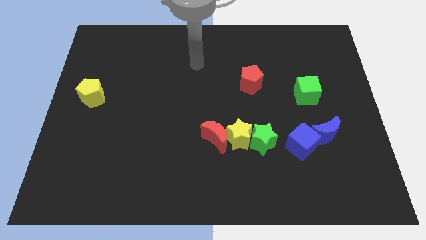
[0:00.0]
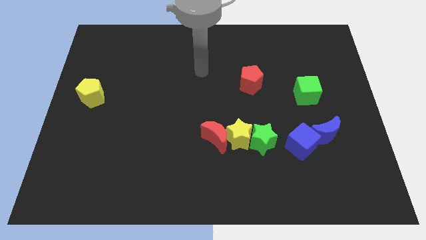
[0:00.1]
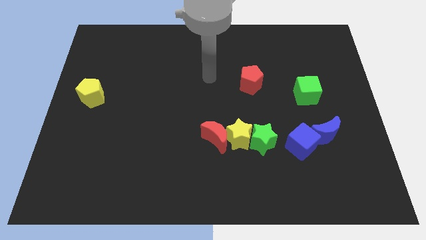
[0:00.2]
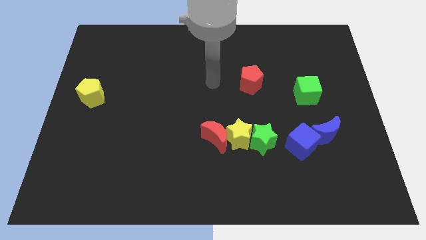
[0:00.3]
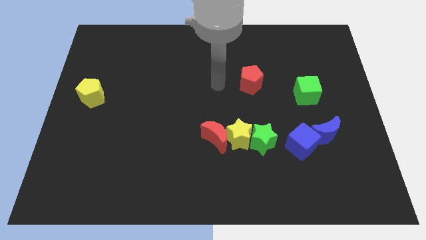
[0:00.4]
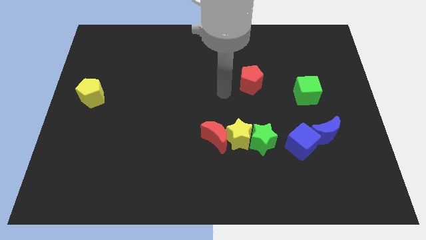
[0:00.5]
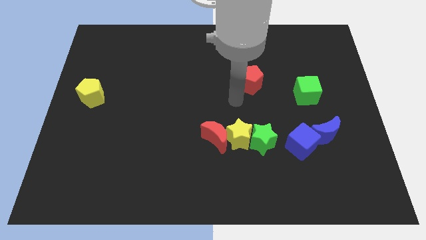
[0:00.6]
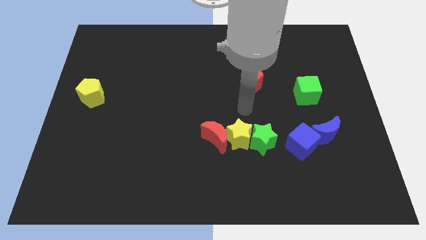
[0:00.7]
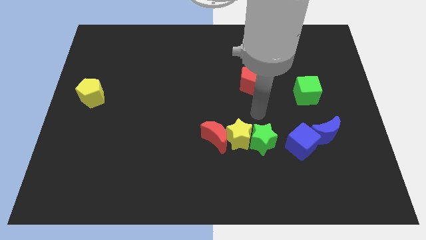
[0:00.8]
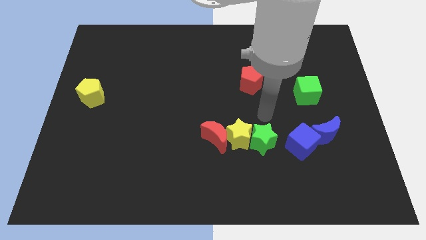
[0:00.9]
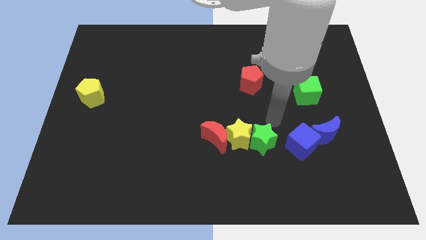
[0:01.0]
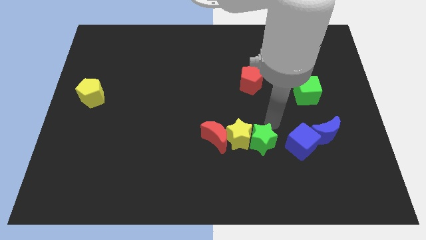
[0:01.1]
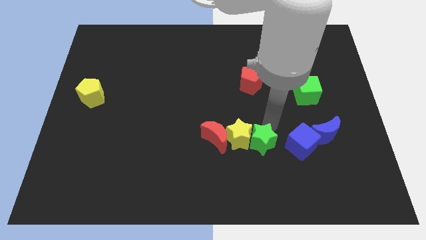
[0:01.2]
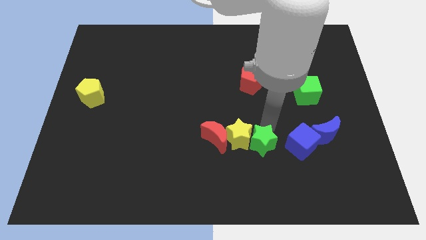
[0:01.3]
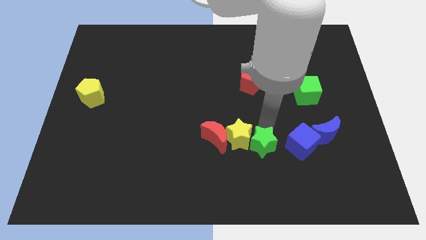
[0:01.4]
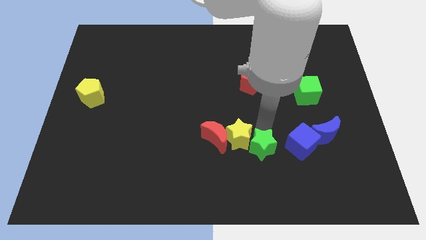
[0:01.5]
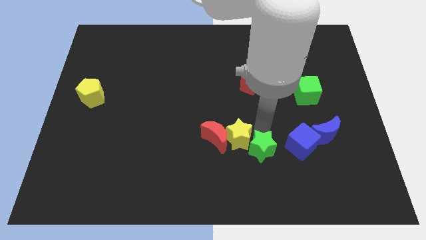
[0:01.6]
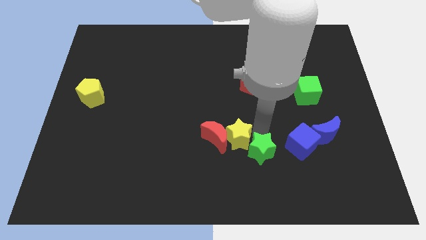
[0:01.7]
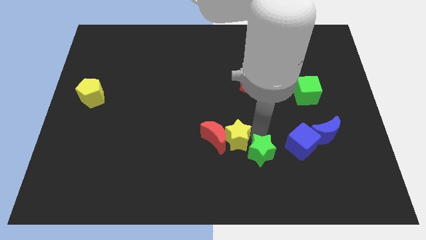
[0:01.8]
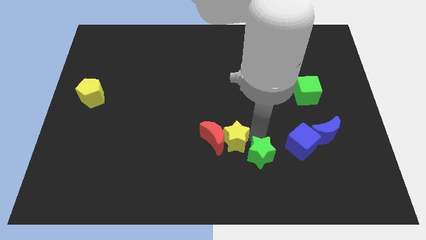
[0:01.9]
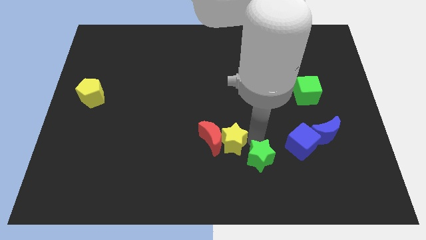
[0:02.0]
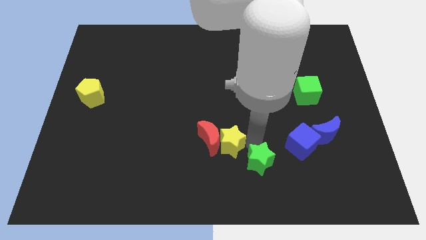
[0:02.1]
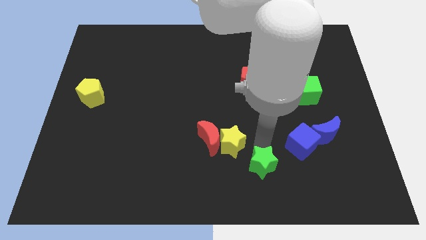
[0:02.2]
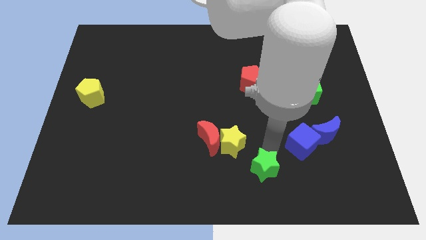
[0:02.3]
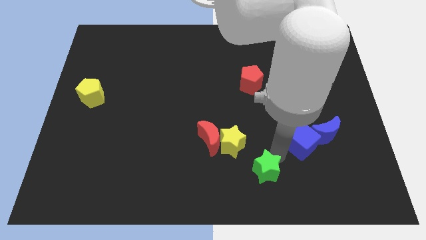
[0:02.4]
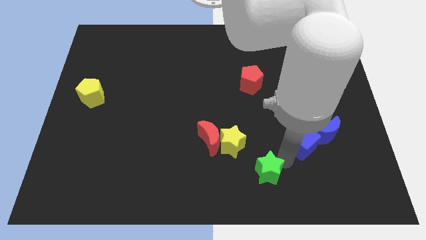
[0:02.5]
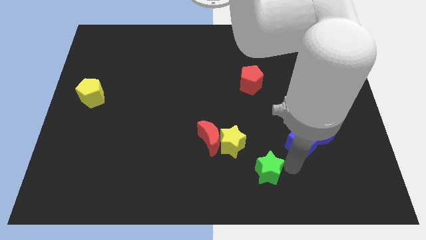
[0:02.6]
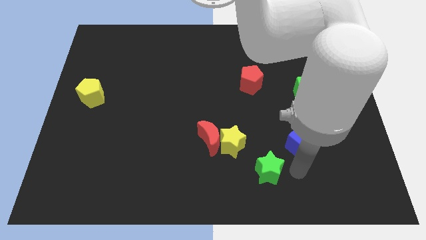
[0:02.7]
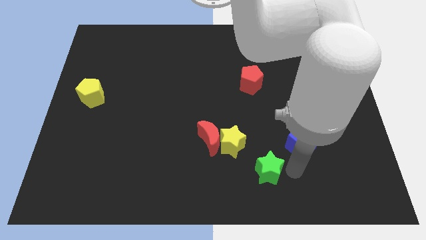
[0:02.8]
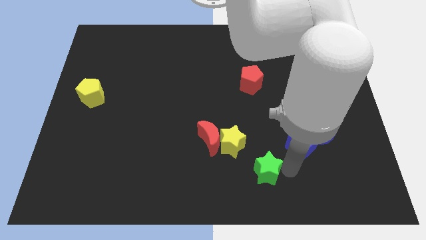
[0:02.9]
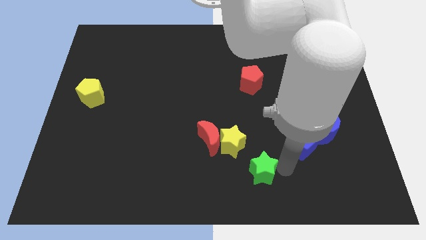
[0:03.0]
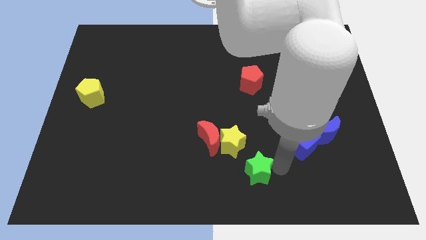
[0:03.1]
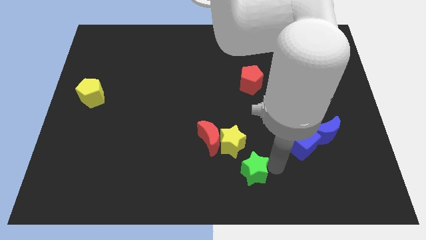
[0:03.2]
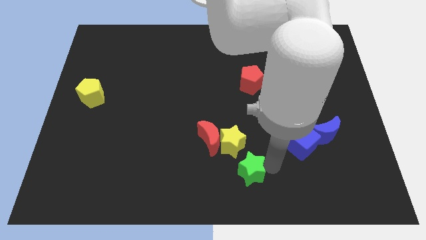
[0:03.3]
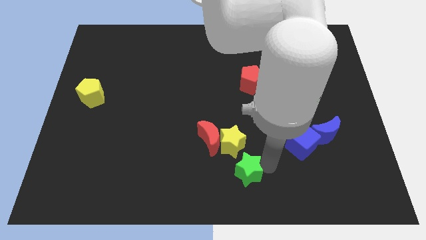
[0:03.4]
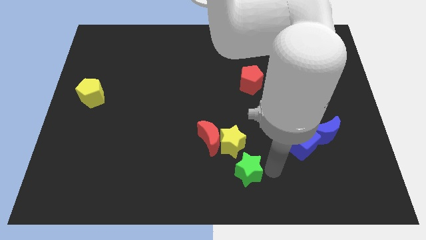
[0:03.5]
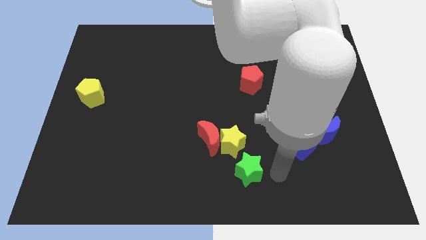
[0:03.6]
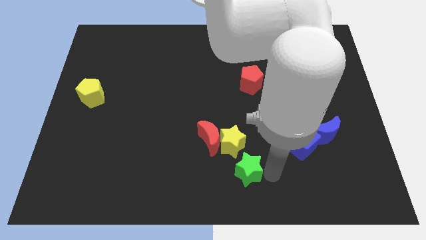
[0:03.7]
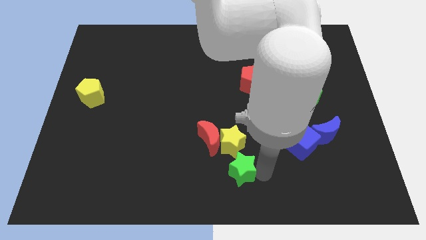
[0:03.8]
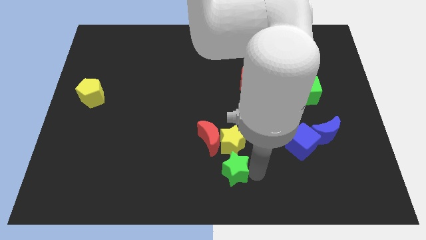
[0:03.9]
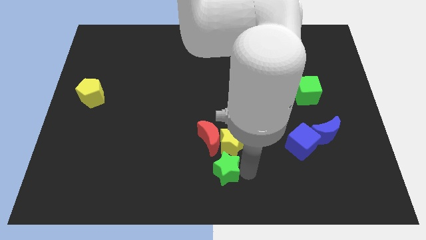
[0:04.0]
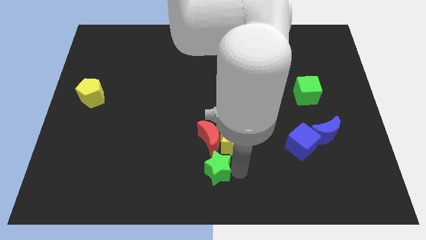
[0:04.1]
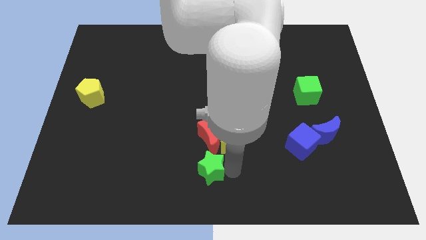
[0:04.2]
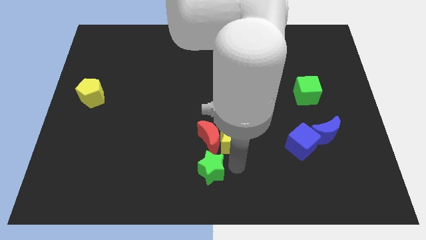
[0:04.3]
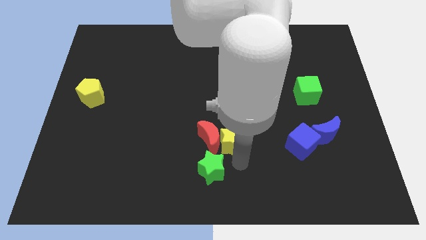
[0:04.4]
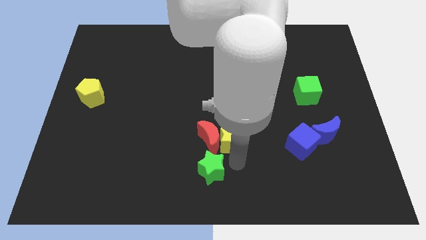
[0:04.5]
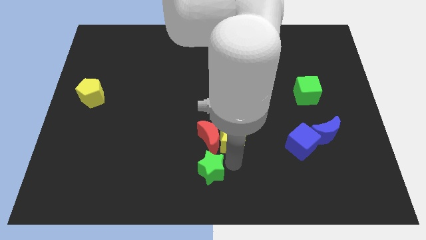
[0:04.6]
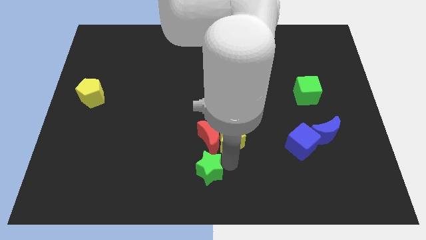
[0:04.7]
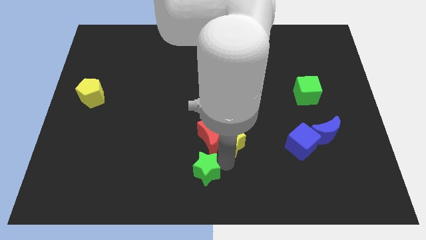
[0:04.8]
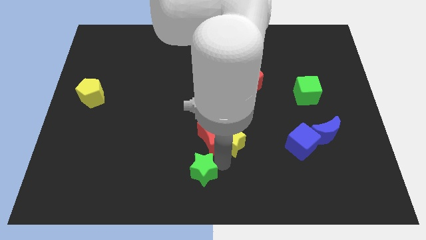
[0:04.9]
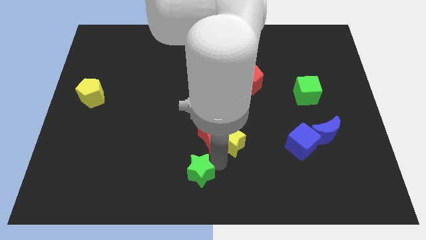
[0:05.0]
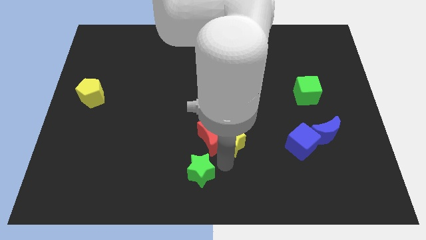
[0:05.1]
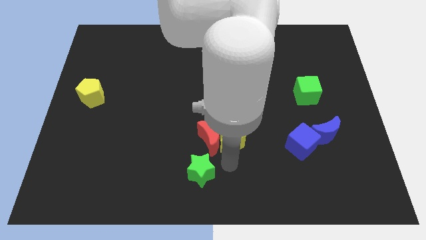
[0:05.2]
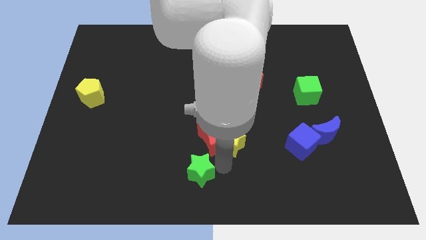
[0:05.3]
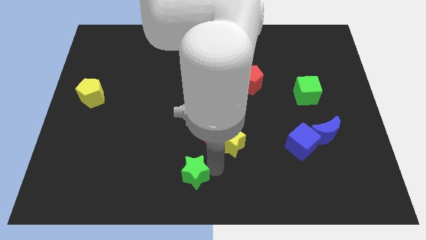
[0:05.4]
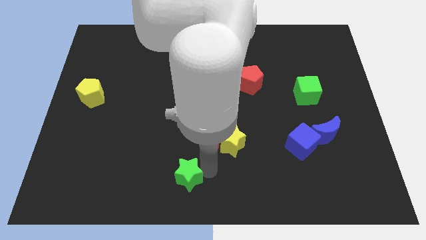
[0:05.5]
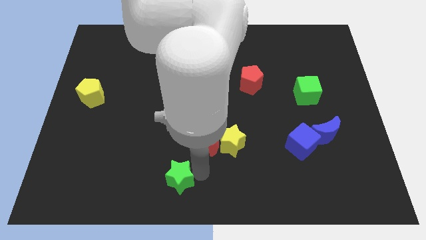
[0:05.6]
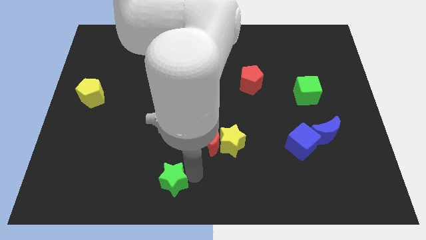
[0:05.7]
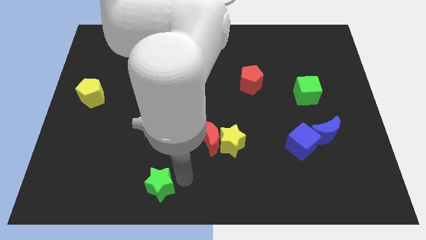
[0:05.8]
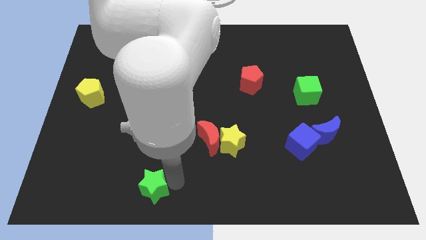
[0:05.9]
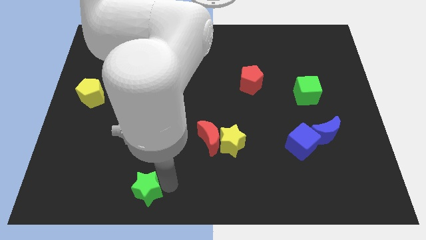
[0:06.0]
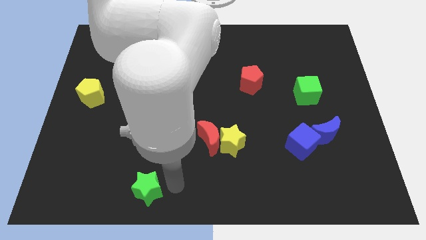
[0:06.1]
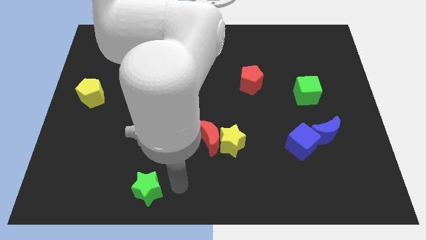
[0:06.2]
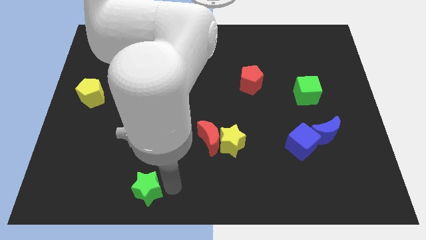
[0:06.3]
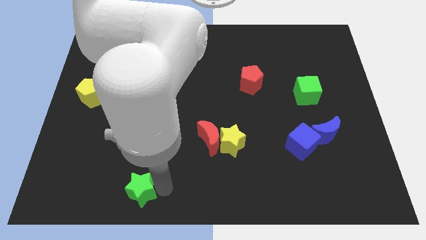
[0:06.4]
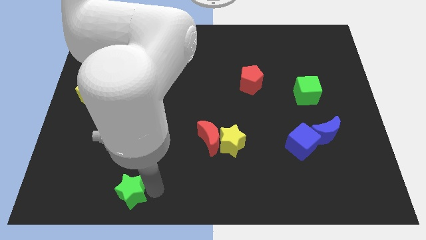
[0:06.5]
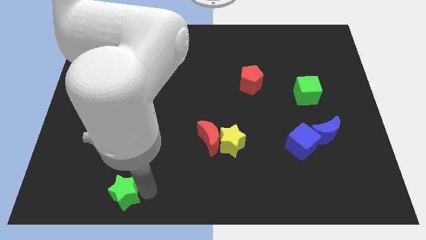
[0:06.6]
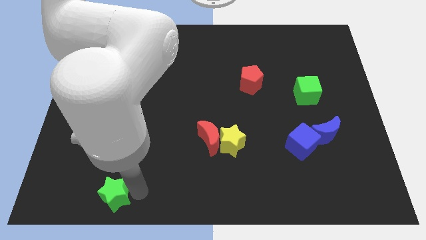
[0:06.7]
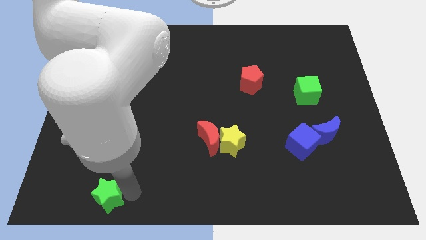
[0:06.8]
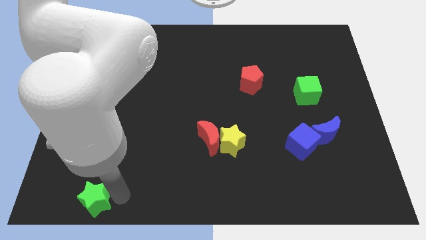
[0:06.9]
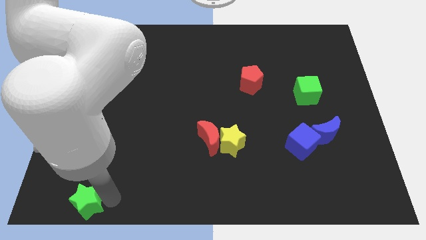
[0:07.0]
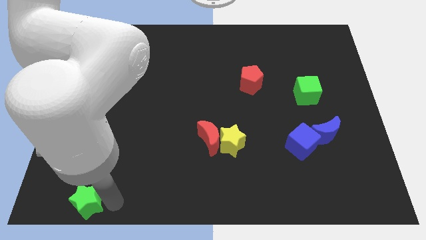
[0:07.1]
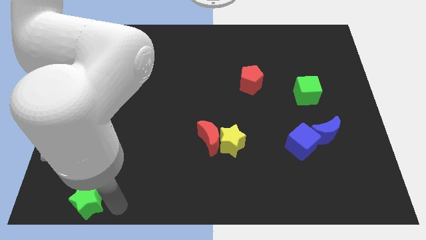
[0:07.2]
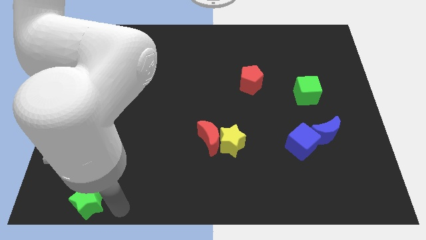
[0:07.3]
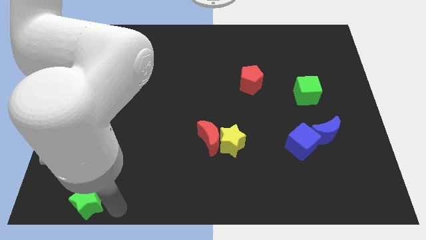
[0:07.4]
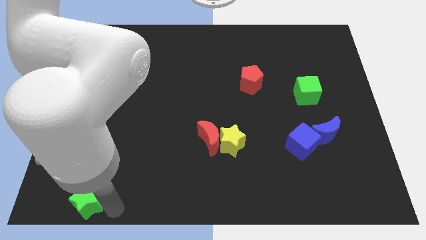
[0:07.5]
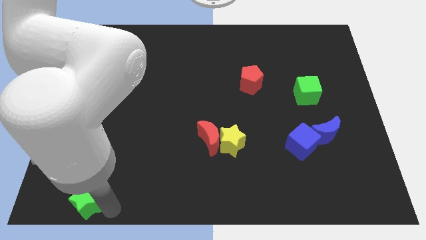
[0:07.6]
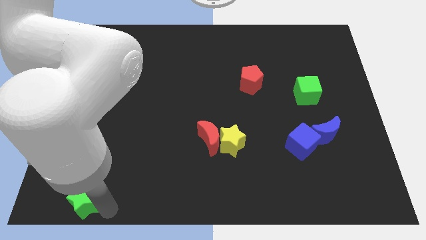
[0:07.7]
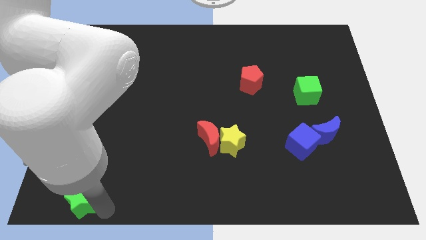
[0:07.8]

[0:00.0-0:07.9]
put the green star to the bottom left corner
